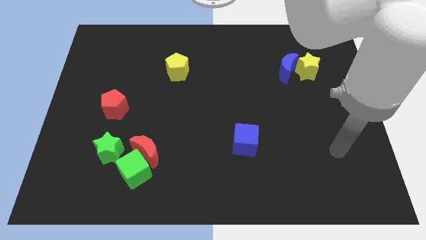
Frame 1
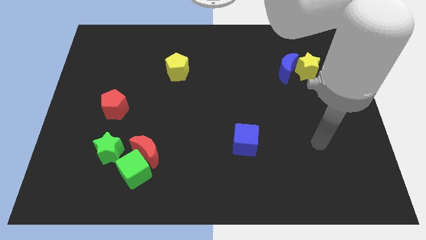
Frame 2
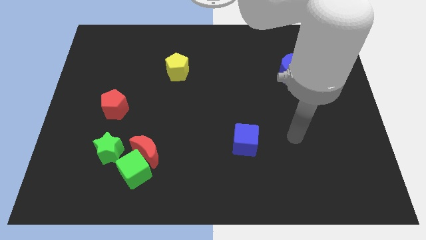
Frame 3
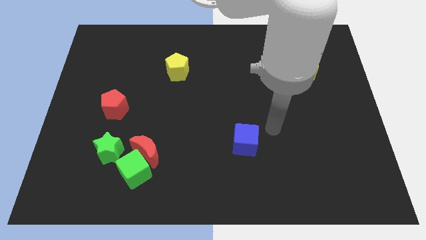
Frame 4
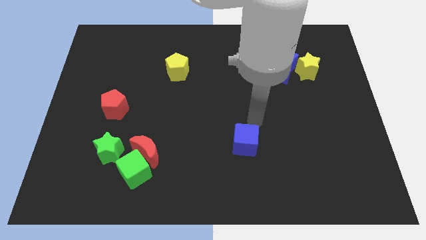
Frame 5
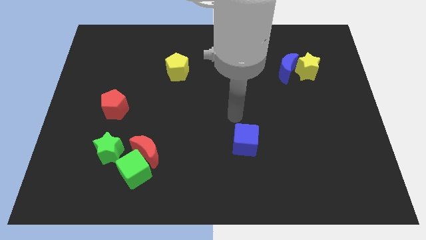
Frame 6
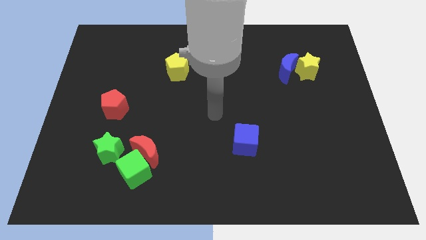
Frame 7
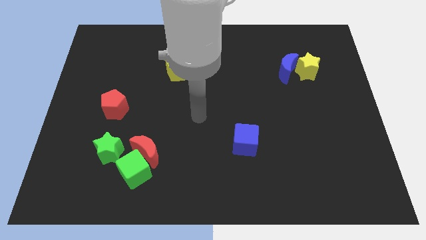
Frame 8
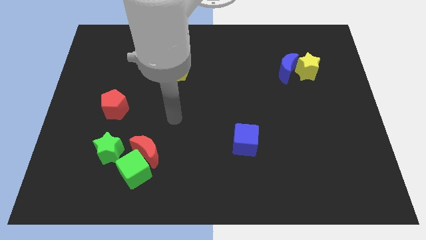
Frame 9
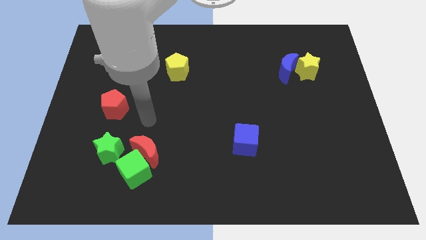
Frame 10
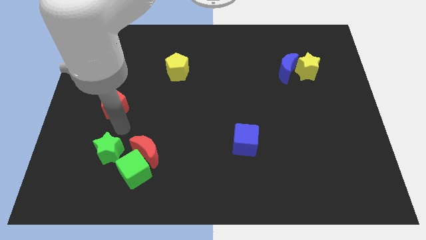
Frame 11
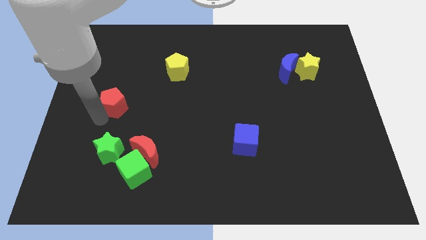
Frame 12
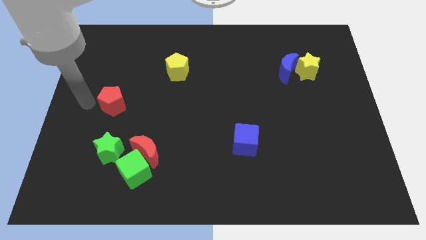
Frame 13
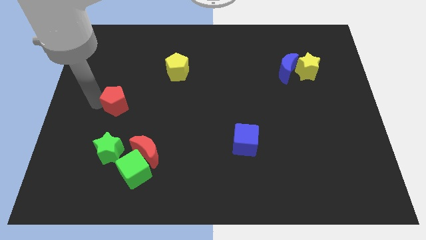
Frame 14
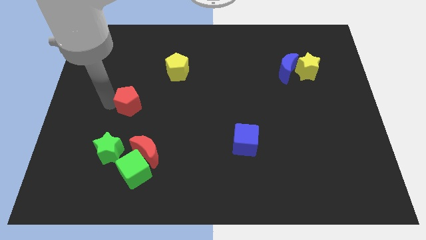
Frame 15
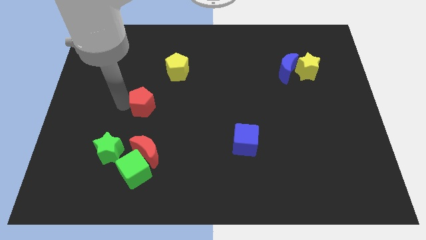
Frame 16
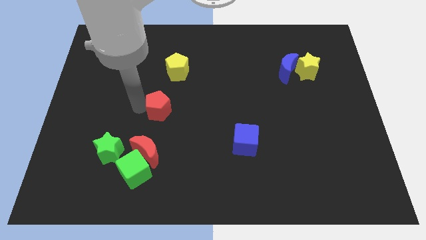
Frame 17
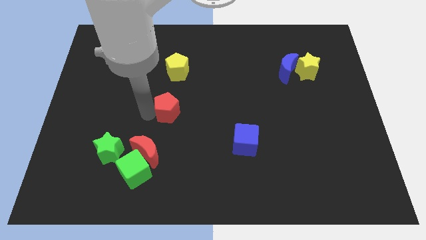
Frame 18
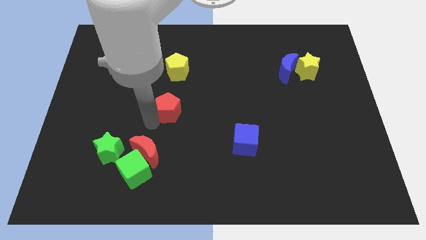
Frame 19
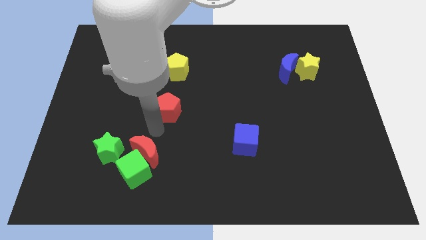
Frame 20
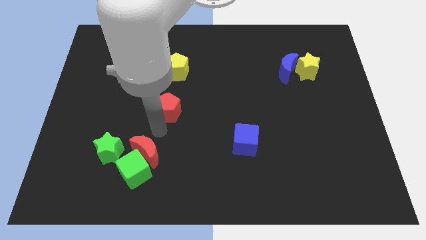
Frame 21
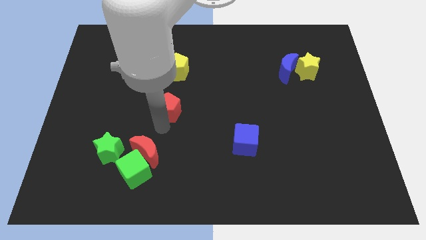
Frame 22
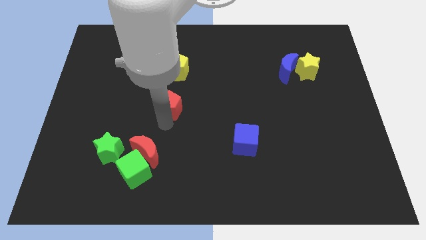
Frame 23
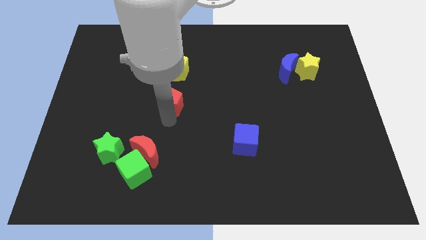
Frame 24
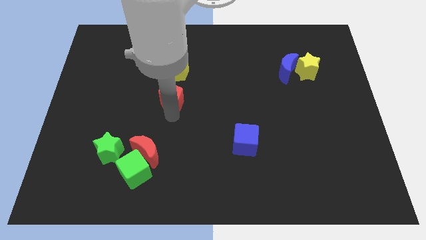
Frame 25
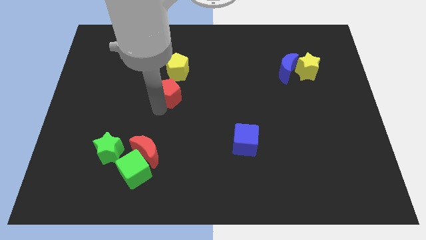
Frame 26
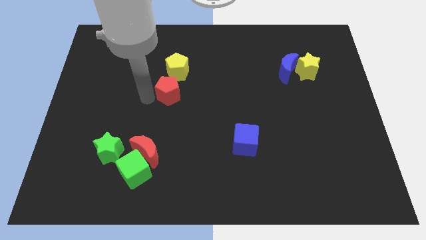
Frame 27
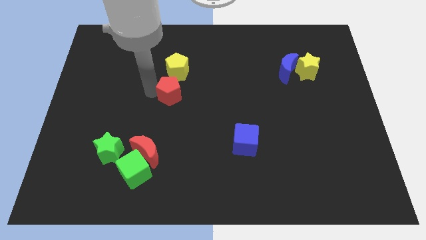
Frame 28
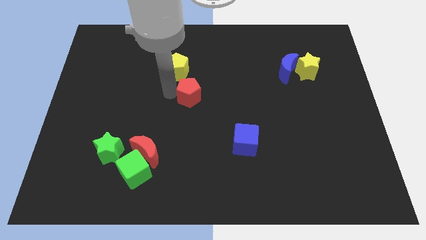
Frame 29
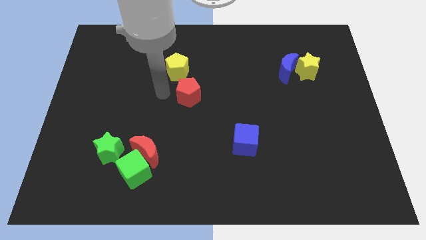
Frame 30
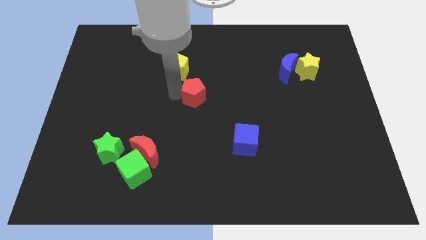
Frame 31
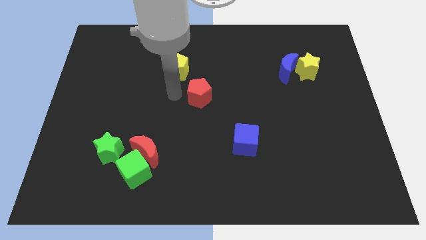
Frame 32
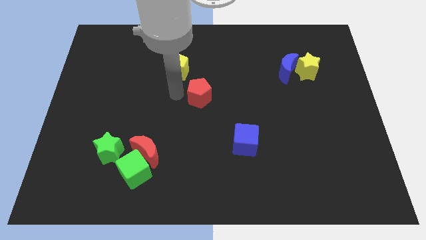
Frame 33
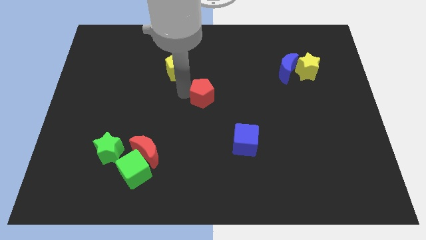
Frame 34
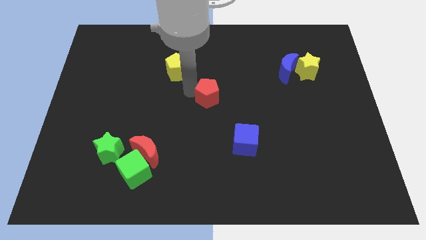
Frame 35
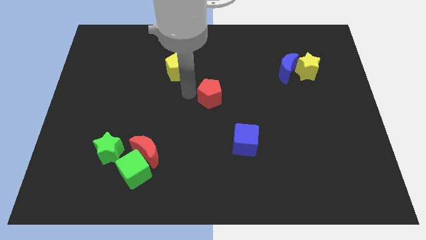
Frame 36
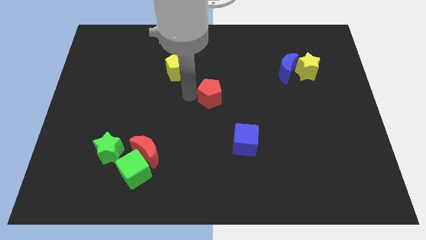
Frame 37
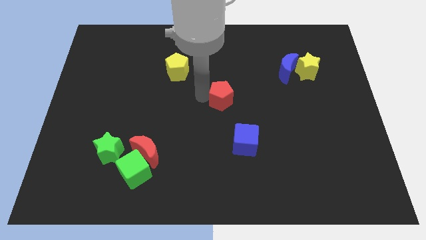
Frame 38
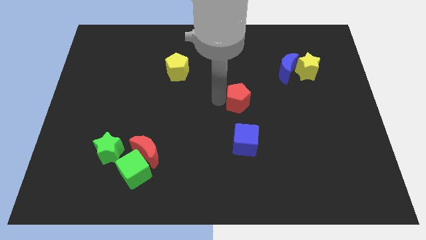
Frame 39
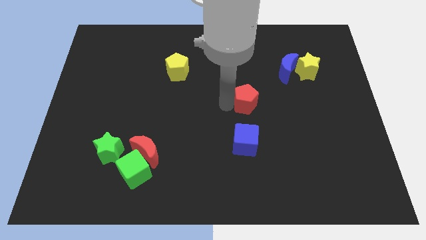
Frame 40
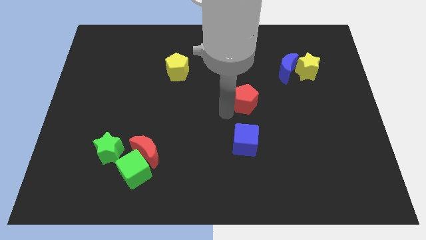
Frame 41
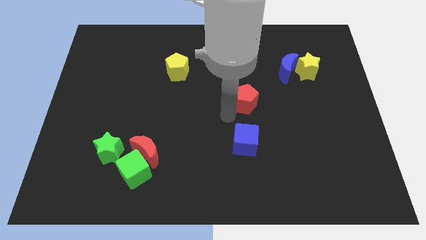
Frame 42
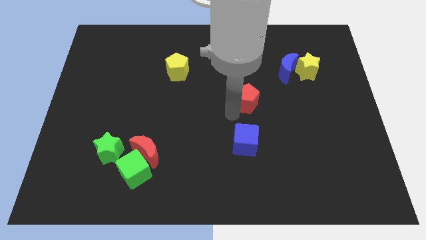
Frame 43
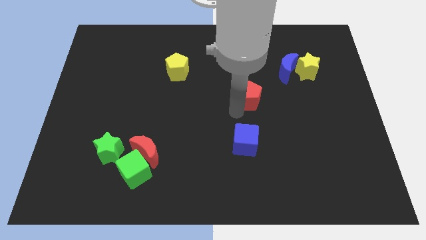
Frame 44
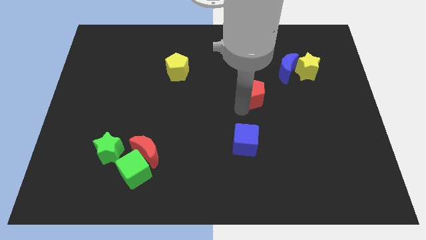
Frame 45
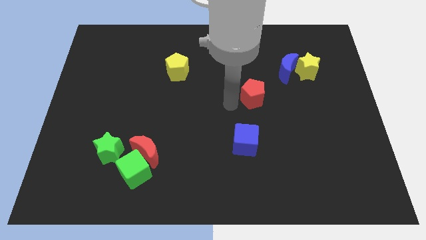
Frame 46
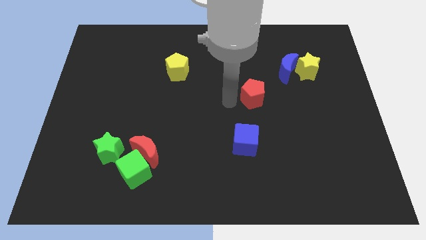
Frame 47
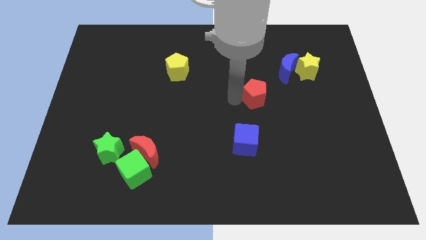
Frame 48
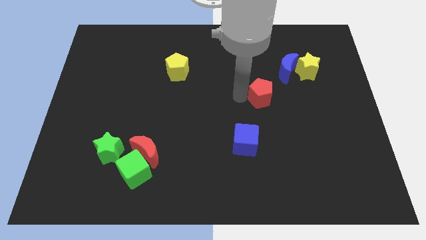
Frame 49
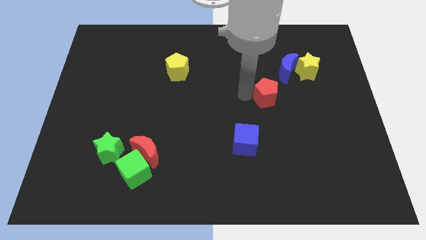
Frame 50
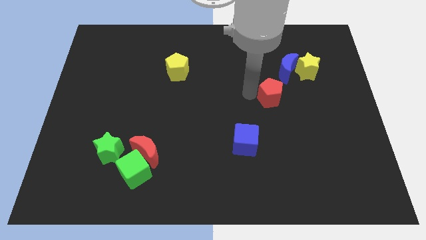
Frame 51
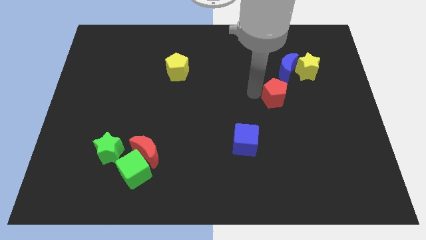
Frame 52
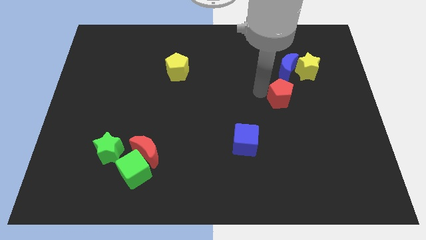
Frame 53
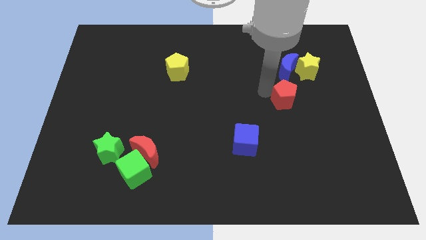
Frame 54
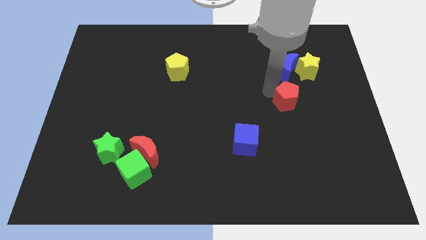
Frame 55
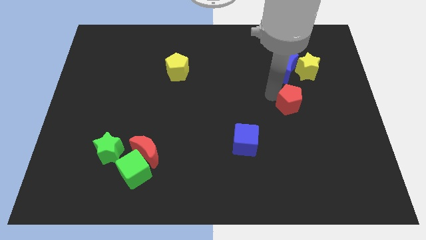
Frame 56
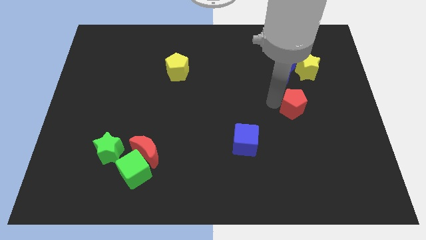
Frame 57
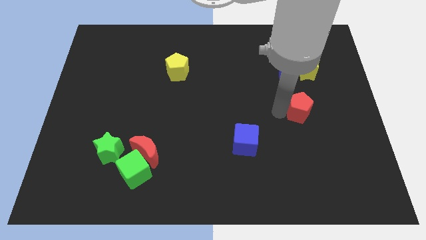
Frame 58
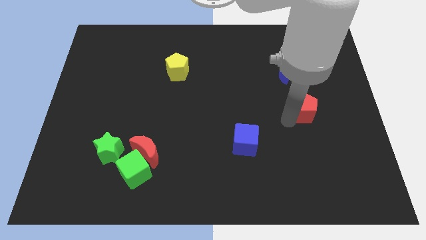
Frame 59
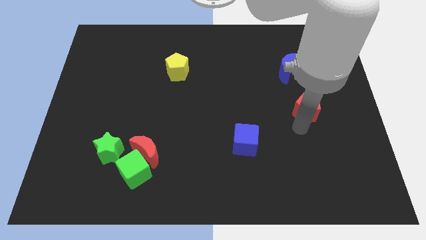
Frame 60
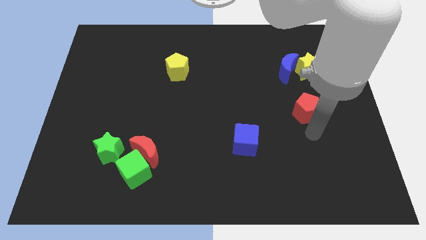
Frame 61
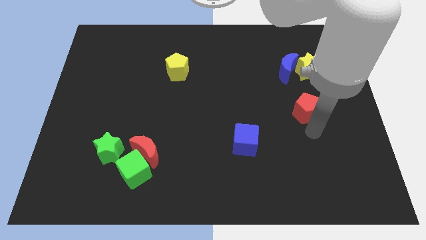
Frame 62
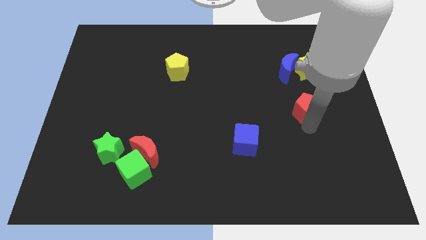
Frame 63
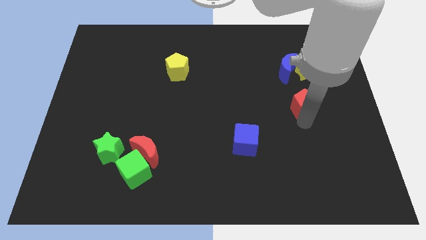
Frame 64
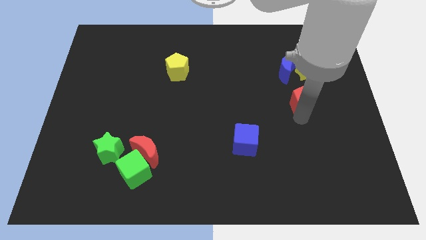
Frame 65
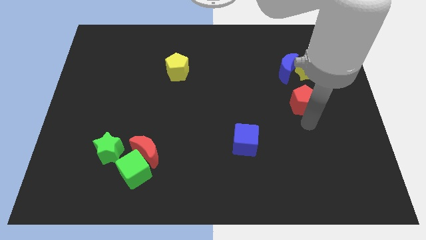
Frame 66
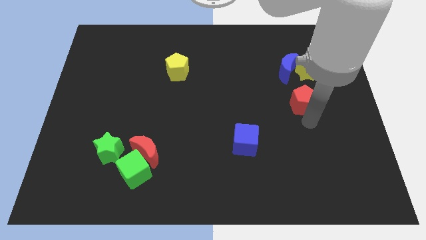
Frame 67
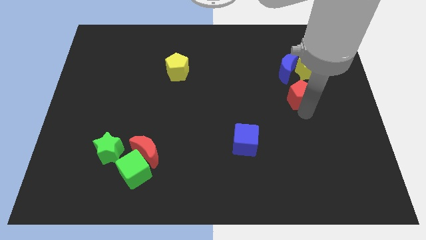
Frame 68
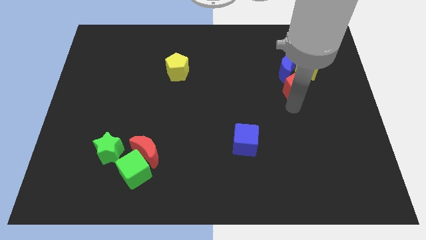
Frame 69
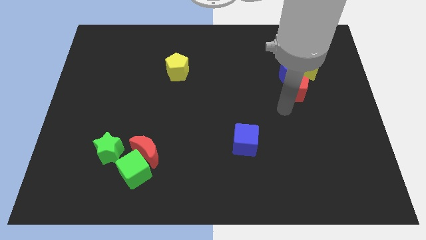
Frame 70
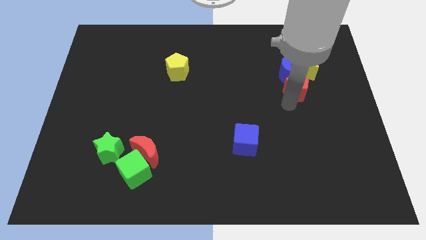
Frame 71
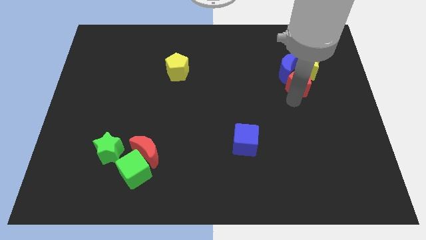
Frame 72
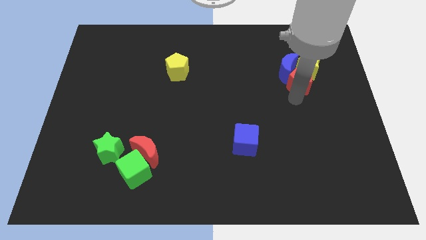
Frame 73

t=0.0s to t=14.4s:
slide the red pentagon to the yellow star
